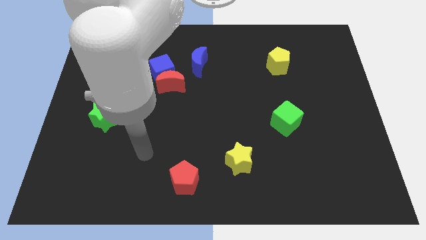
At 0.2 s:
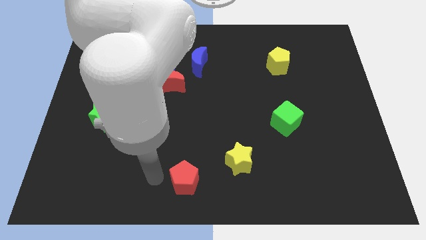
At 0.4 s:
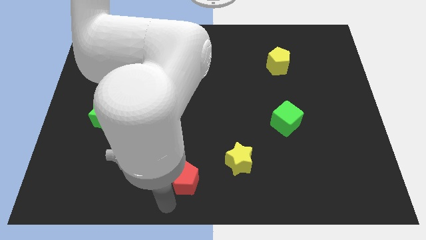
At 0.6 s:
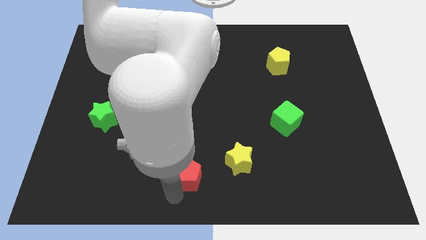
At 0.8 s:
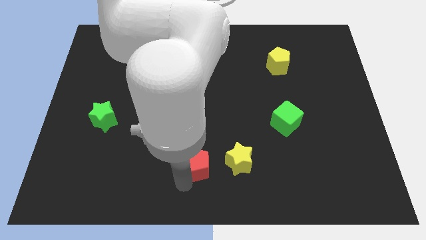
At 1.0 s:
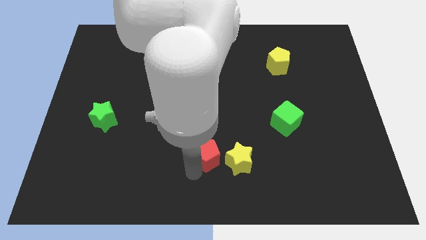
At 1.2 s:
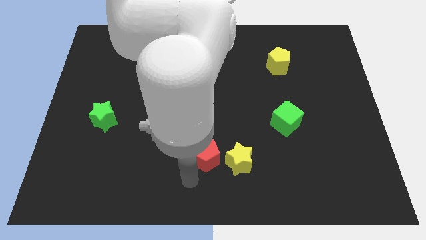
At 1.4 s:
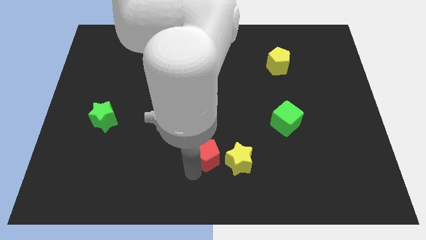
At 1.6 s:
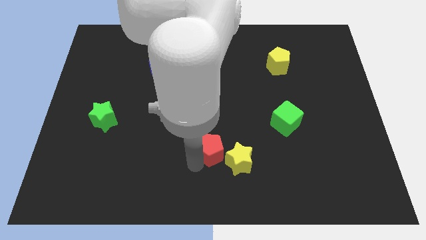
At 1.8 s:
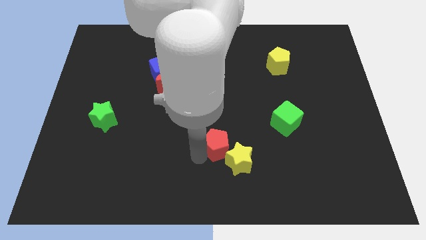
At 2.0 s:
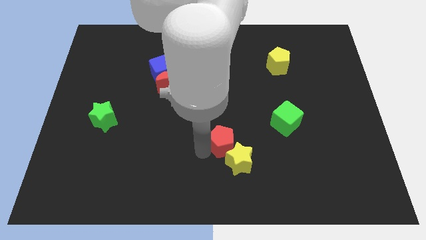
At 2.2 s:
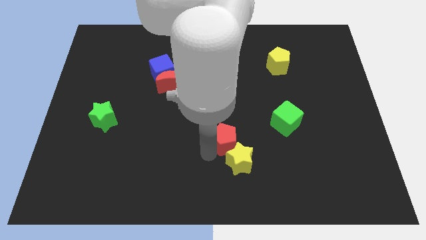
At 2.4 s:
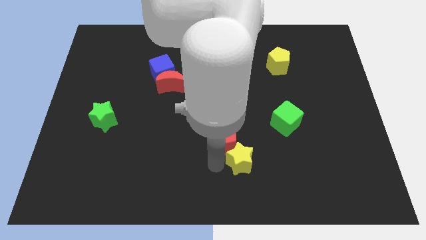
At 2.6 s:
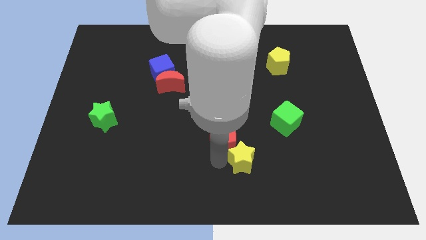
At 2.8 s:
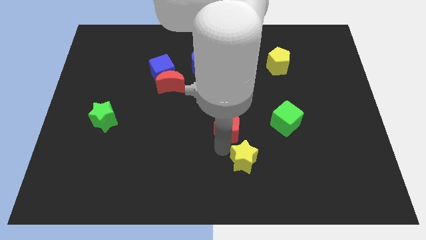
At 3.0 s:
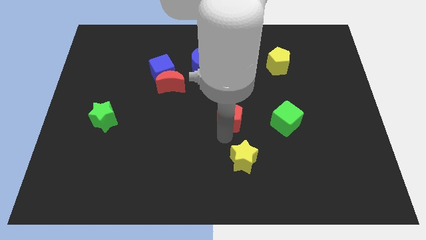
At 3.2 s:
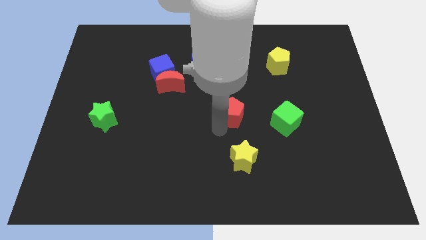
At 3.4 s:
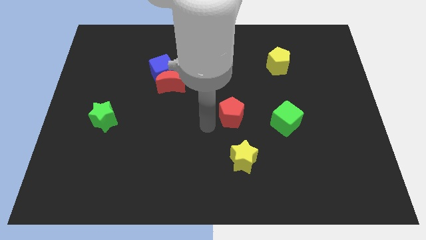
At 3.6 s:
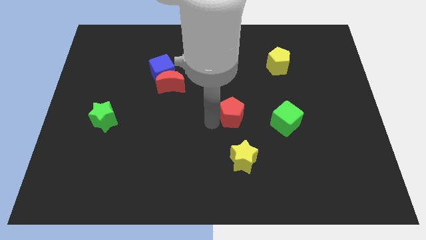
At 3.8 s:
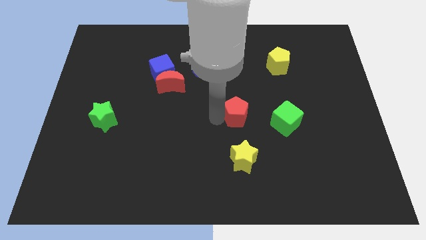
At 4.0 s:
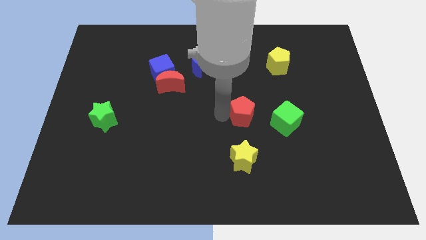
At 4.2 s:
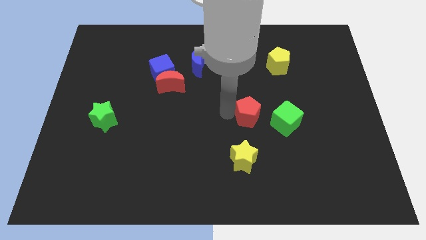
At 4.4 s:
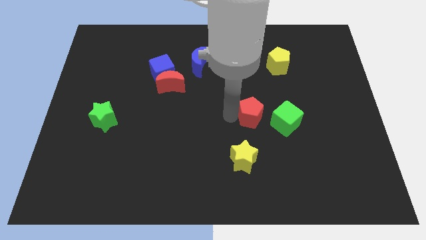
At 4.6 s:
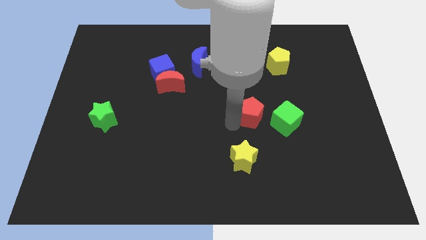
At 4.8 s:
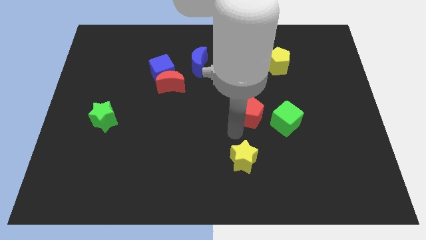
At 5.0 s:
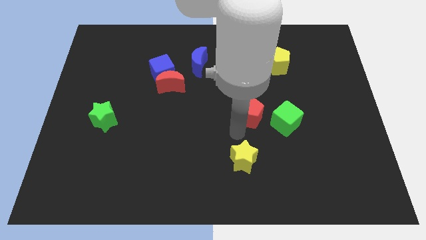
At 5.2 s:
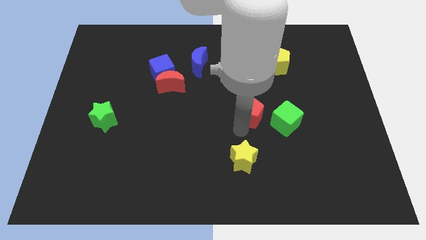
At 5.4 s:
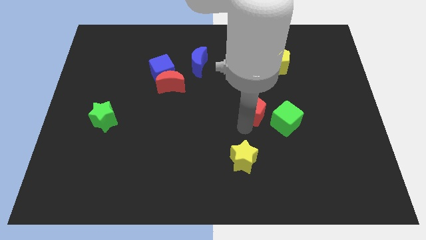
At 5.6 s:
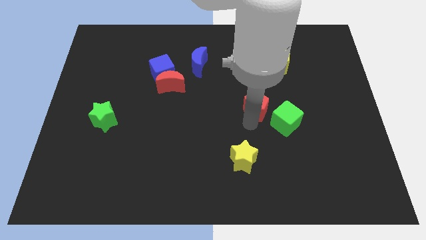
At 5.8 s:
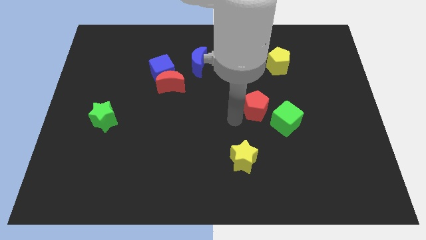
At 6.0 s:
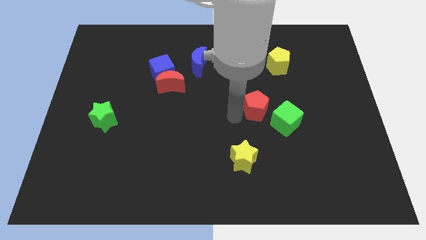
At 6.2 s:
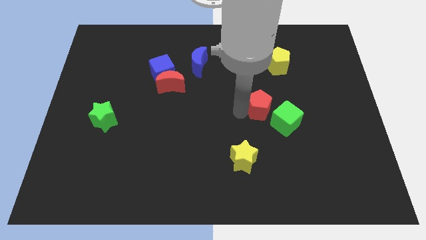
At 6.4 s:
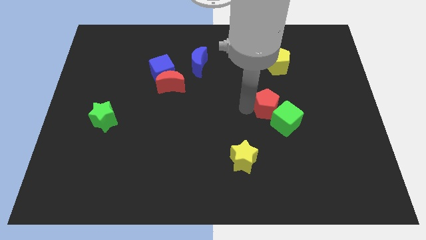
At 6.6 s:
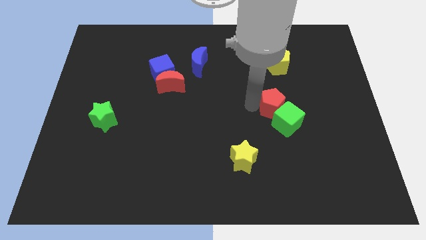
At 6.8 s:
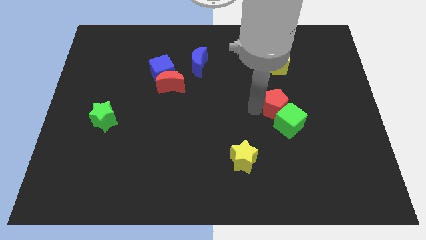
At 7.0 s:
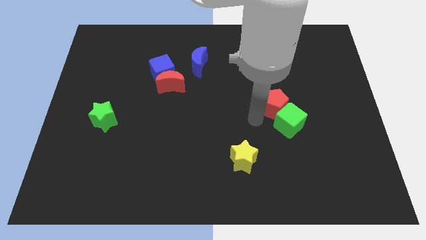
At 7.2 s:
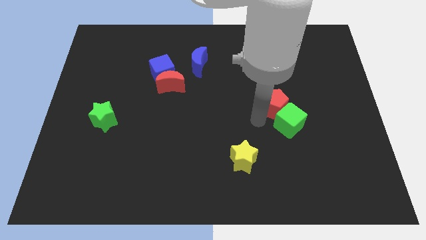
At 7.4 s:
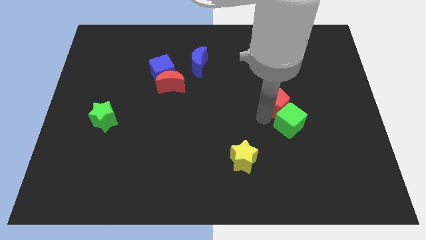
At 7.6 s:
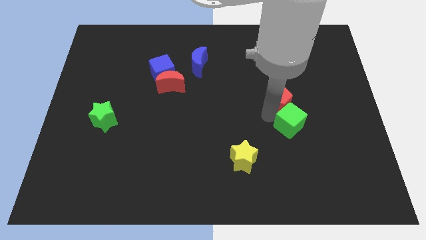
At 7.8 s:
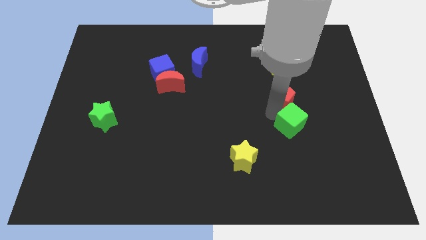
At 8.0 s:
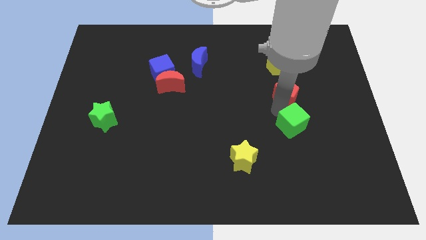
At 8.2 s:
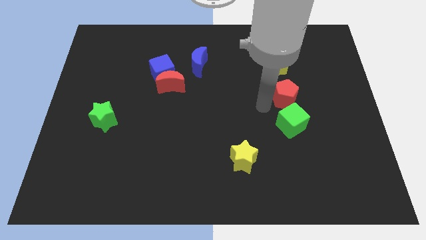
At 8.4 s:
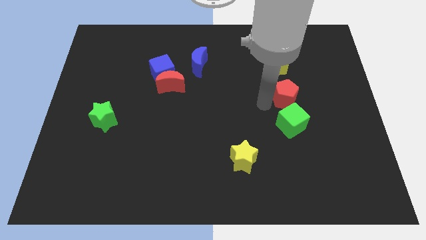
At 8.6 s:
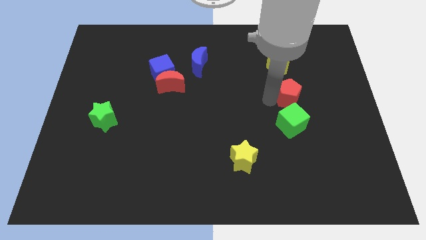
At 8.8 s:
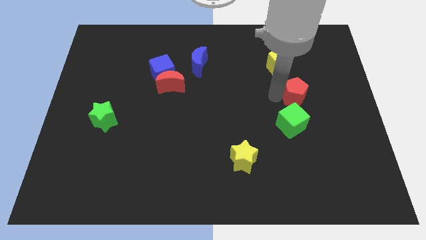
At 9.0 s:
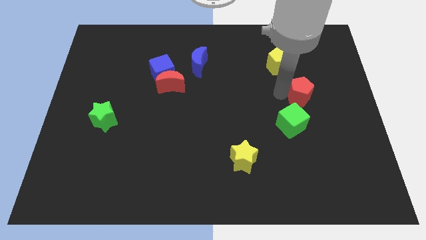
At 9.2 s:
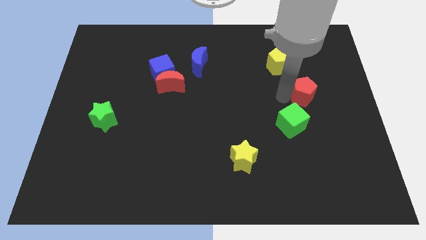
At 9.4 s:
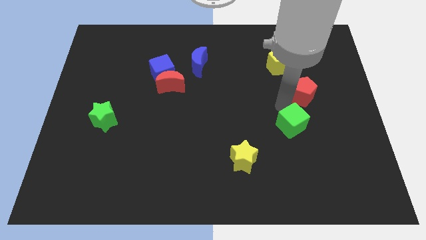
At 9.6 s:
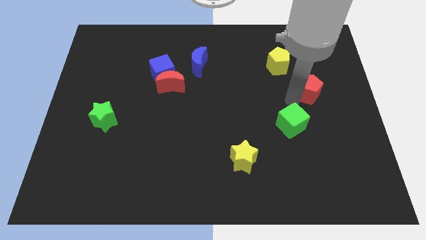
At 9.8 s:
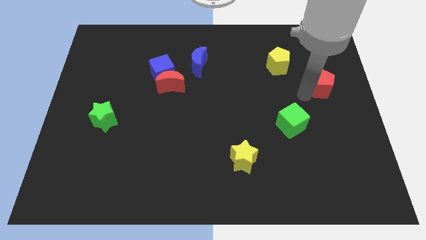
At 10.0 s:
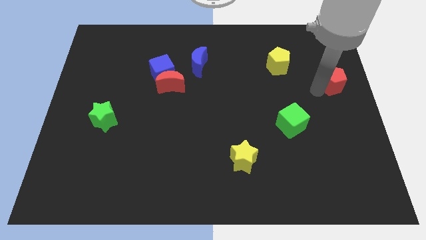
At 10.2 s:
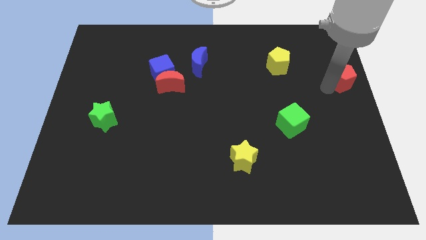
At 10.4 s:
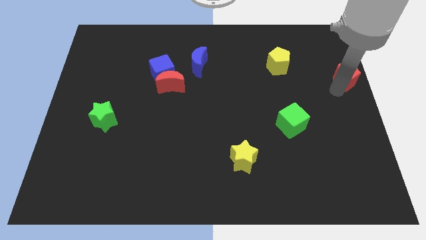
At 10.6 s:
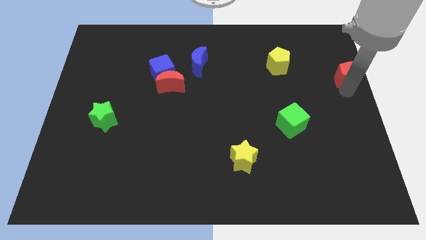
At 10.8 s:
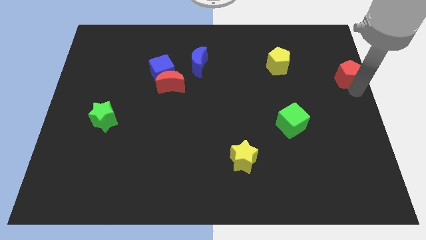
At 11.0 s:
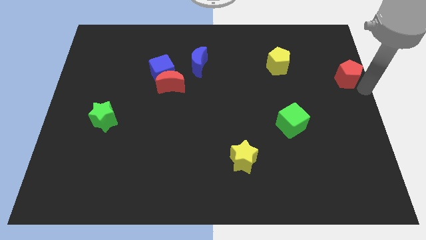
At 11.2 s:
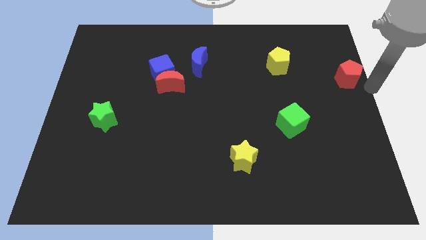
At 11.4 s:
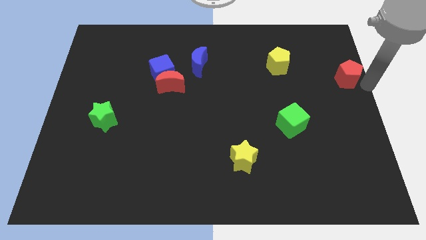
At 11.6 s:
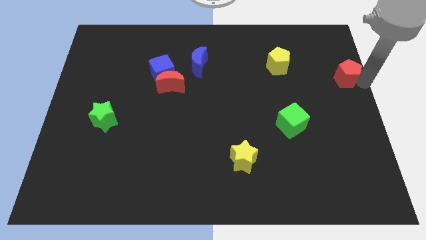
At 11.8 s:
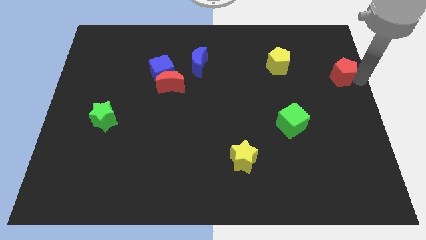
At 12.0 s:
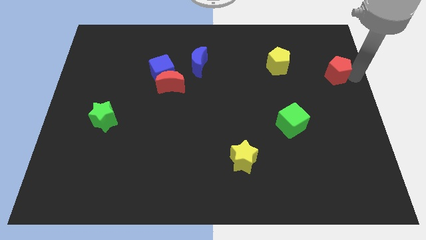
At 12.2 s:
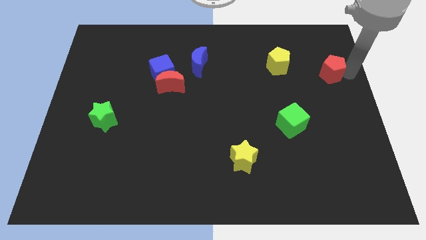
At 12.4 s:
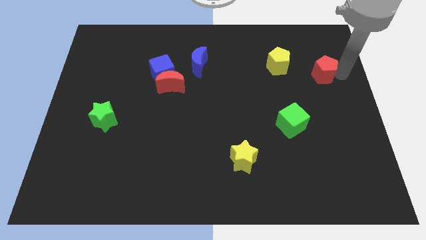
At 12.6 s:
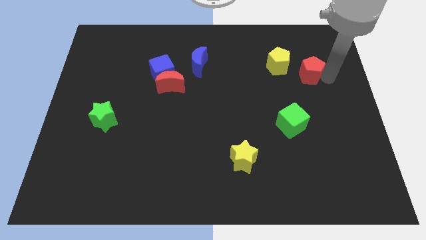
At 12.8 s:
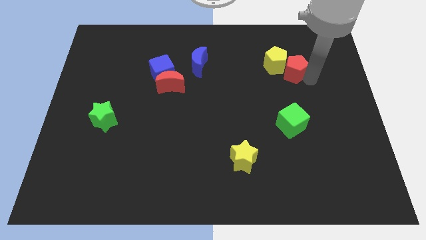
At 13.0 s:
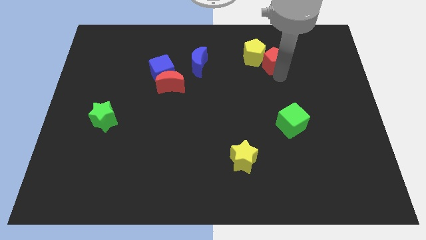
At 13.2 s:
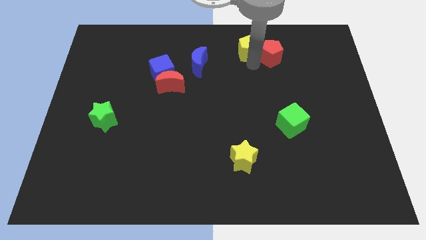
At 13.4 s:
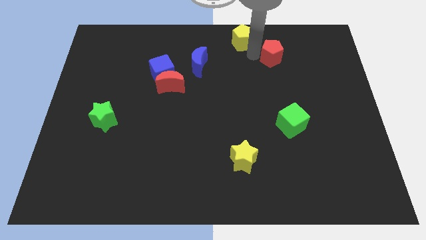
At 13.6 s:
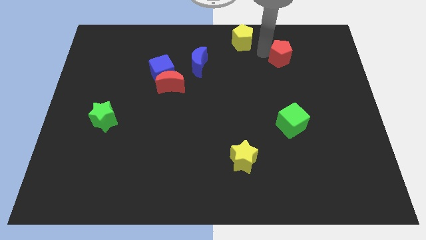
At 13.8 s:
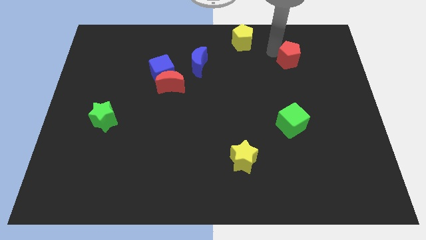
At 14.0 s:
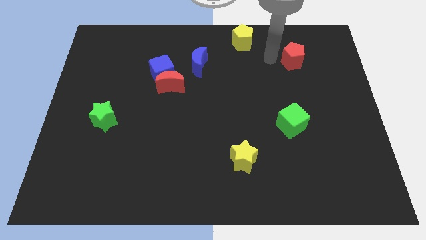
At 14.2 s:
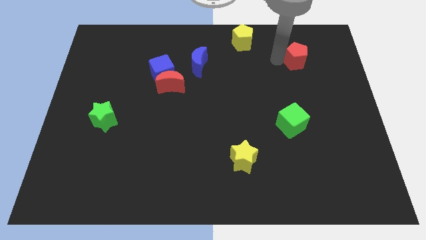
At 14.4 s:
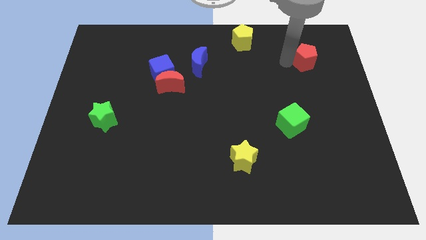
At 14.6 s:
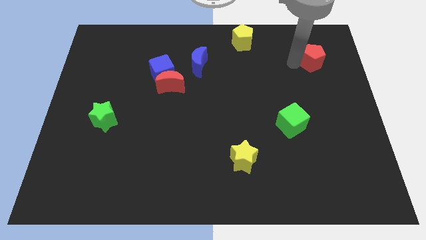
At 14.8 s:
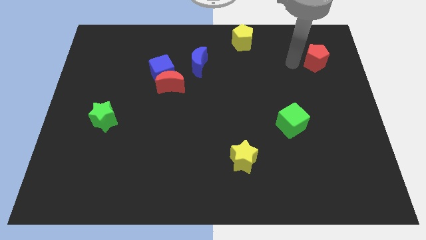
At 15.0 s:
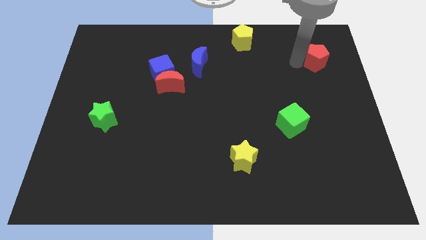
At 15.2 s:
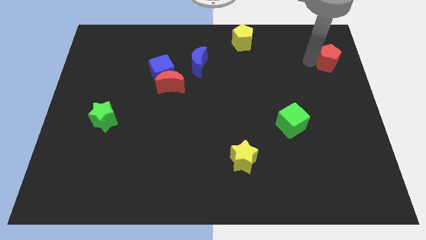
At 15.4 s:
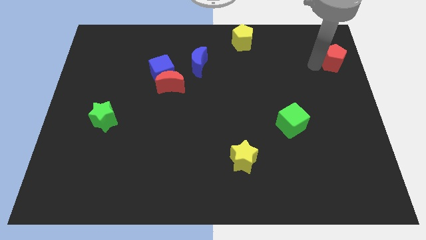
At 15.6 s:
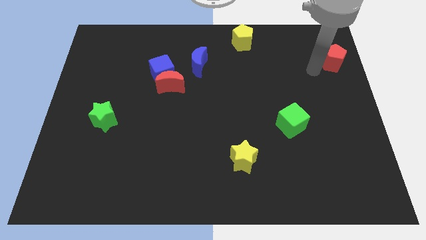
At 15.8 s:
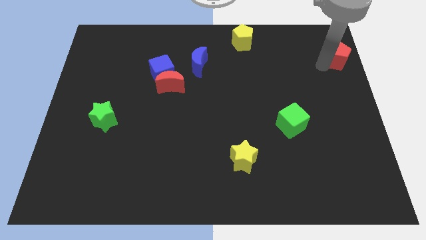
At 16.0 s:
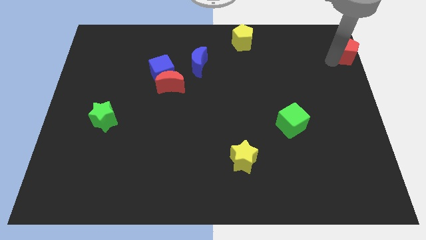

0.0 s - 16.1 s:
push the red pentagon to the top right
